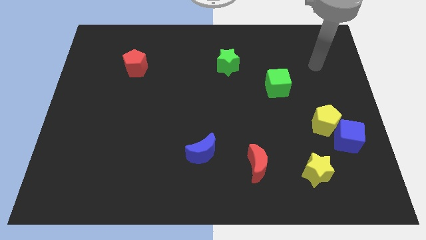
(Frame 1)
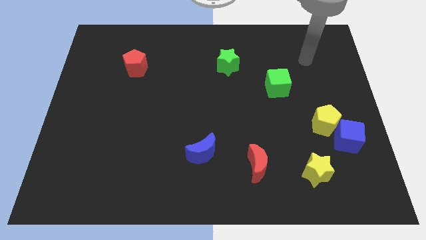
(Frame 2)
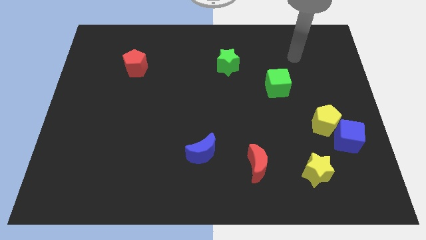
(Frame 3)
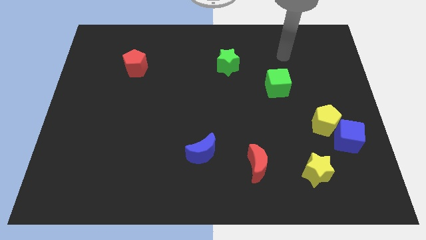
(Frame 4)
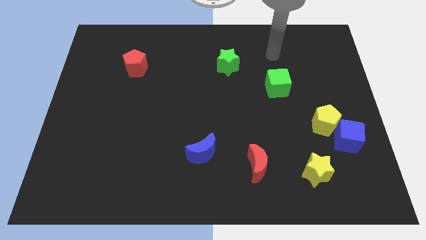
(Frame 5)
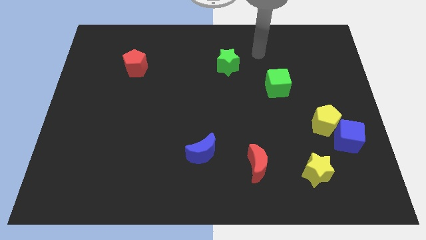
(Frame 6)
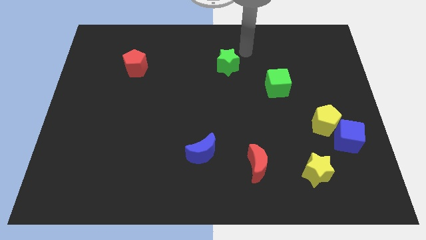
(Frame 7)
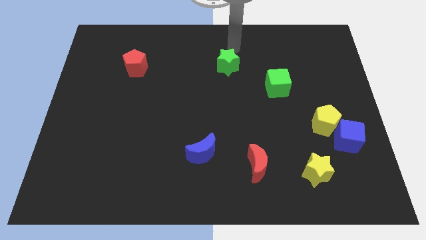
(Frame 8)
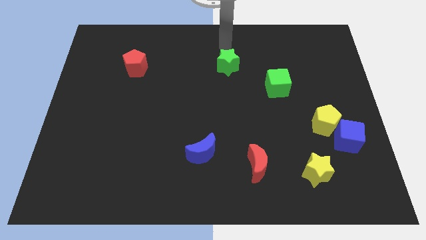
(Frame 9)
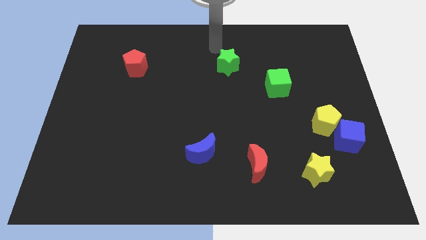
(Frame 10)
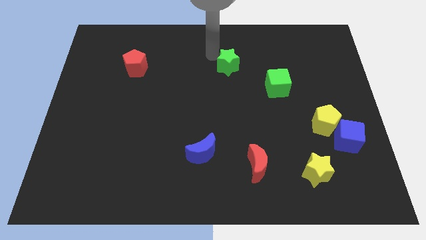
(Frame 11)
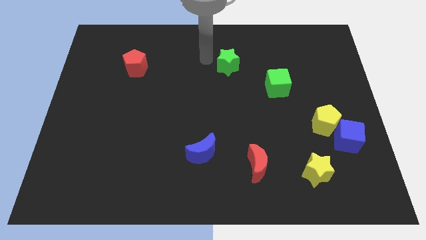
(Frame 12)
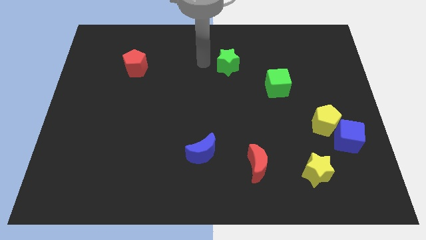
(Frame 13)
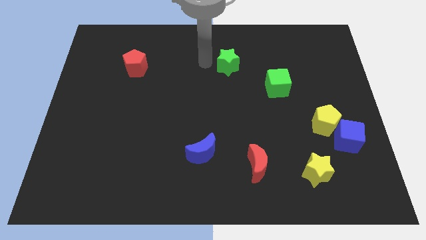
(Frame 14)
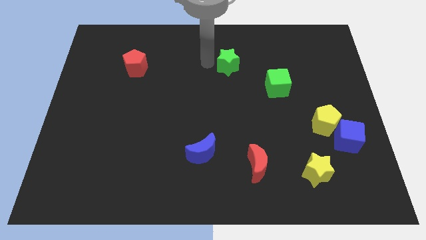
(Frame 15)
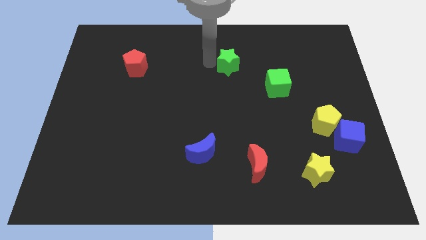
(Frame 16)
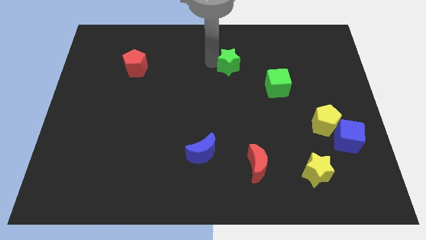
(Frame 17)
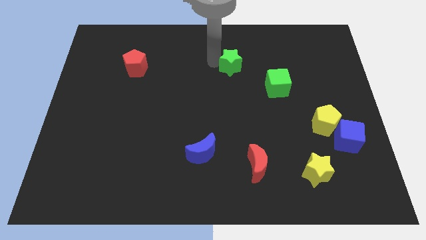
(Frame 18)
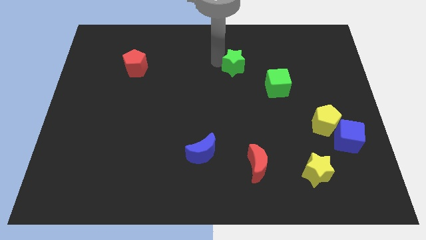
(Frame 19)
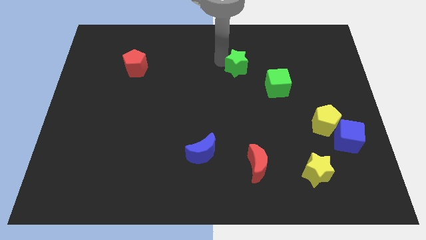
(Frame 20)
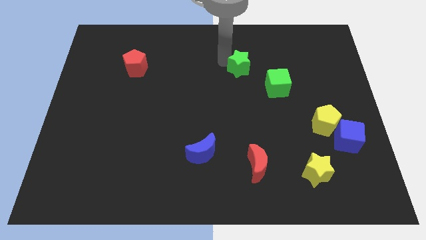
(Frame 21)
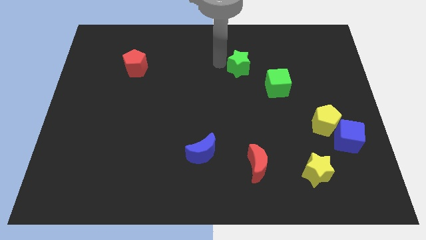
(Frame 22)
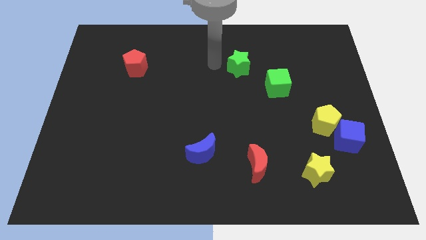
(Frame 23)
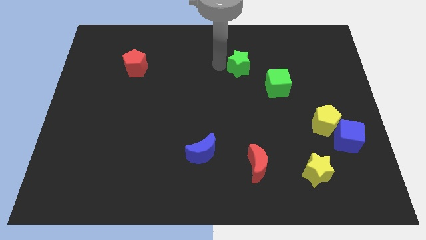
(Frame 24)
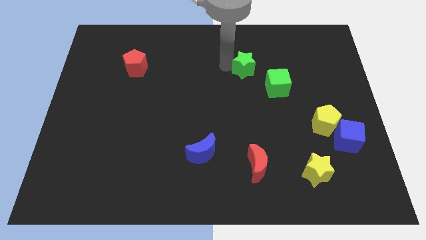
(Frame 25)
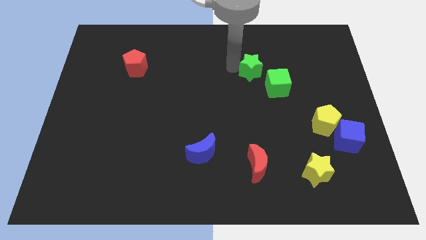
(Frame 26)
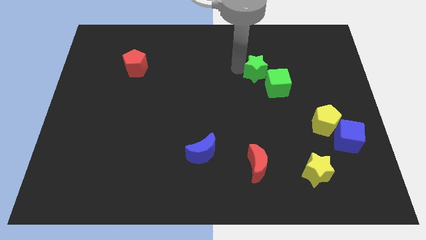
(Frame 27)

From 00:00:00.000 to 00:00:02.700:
push the green star a bit right

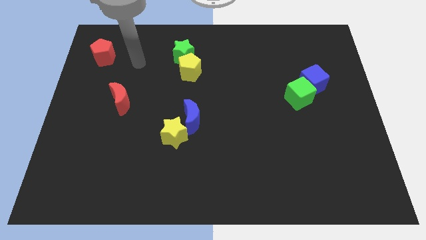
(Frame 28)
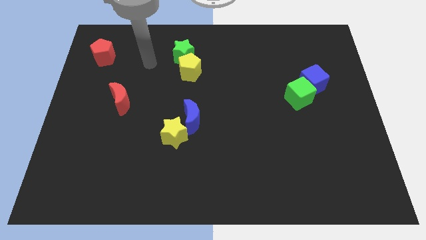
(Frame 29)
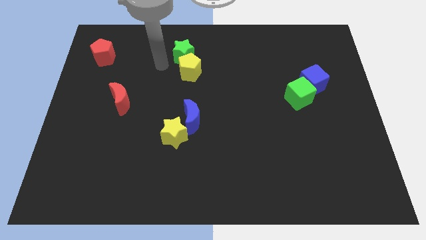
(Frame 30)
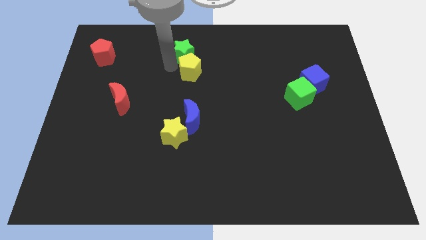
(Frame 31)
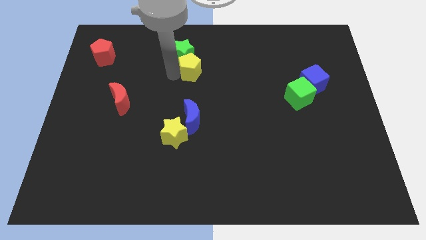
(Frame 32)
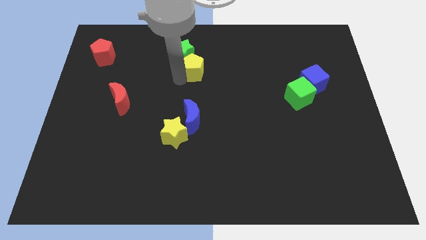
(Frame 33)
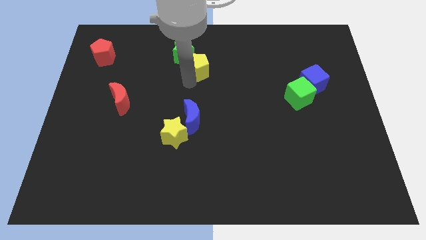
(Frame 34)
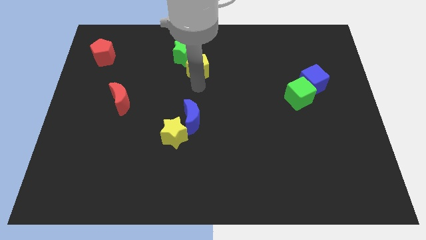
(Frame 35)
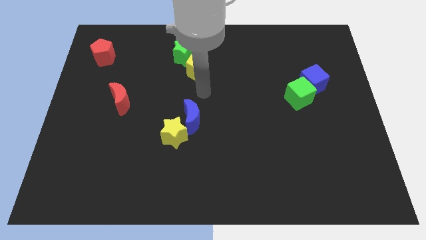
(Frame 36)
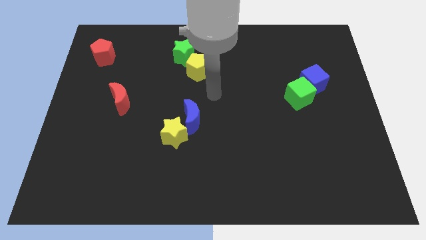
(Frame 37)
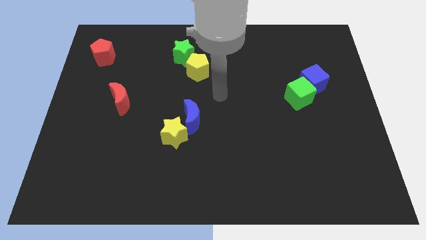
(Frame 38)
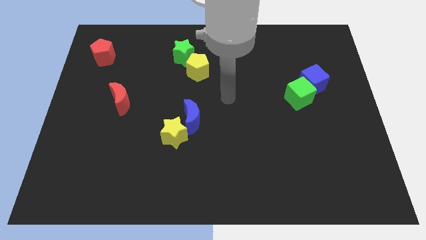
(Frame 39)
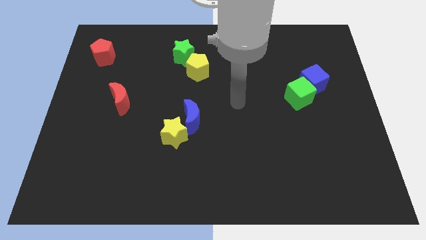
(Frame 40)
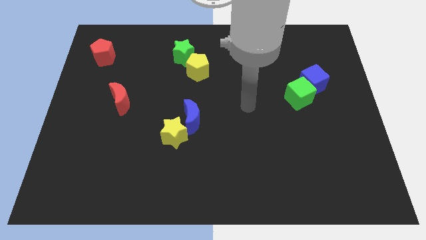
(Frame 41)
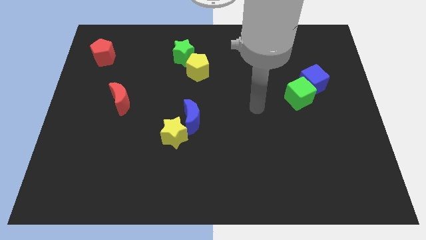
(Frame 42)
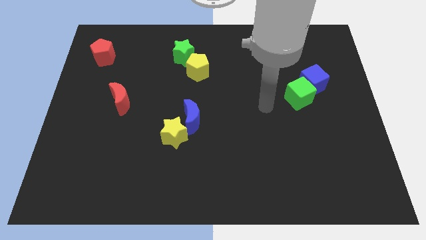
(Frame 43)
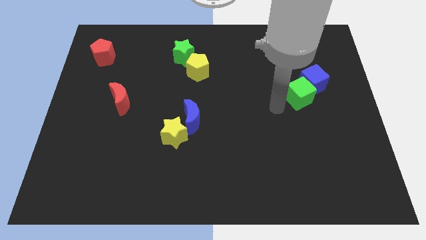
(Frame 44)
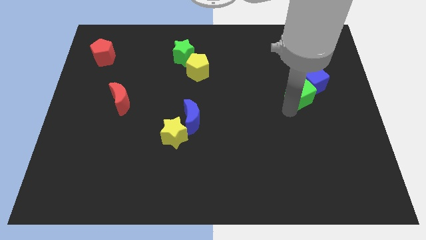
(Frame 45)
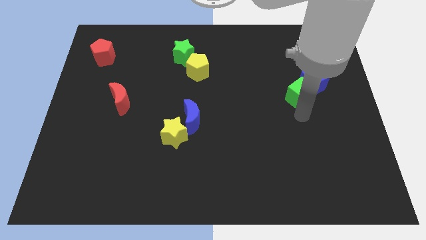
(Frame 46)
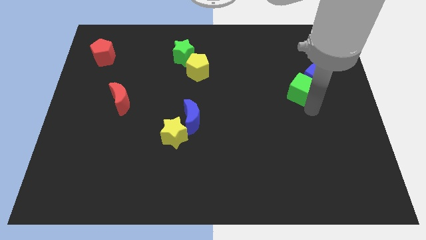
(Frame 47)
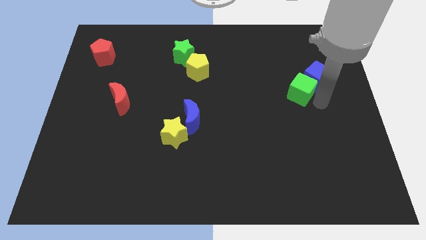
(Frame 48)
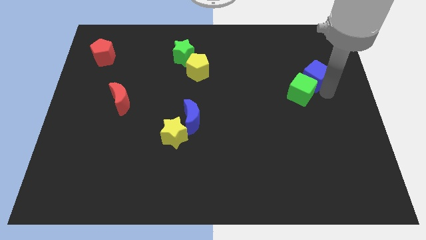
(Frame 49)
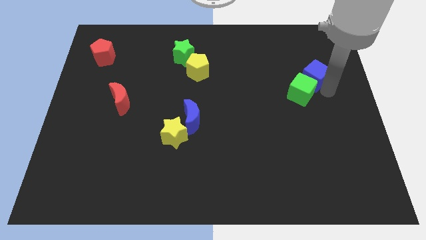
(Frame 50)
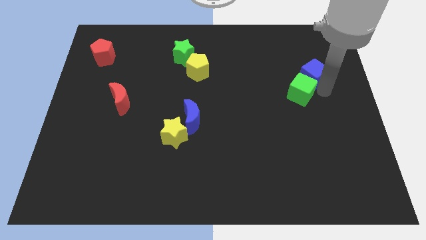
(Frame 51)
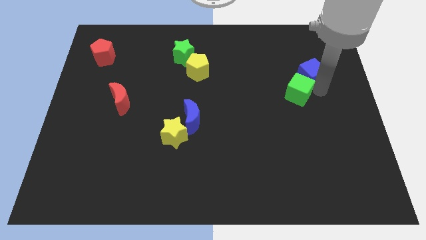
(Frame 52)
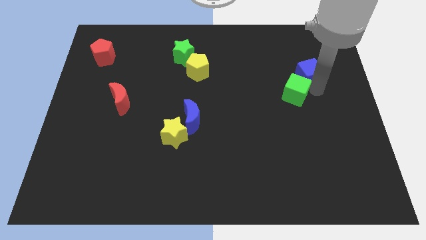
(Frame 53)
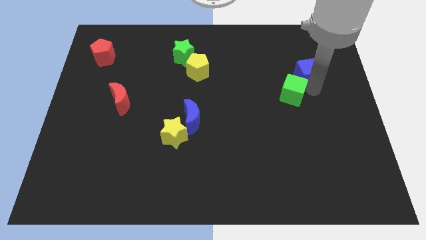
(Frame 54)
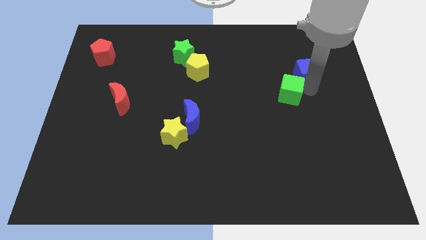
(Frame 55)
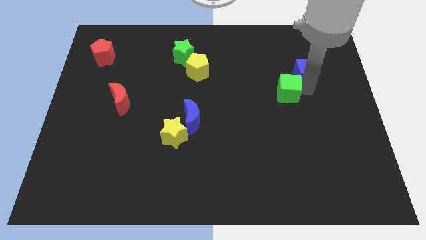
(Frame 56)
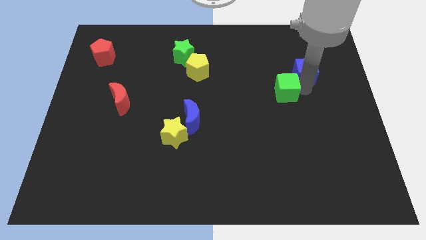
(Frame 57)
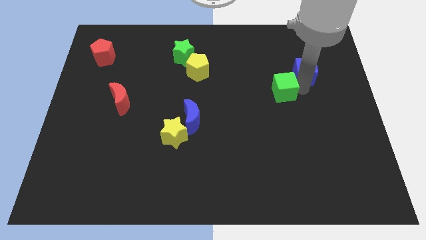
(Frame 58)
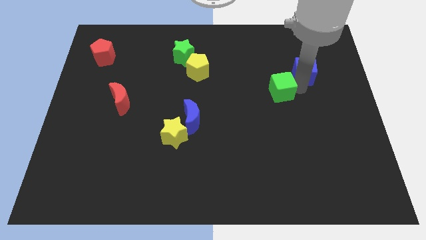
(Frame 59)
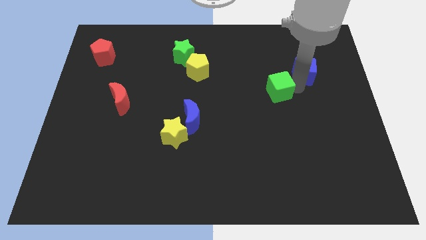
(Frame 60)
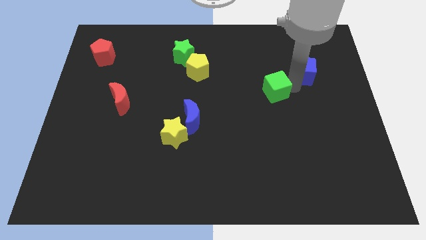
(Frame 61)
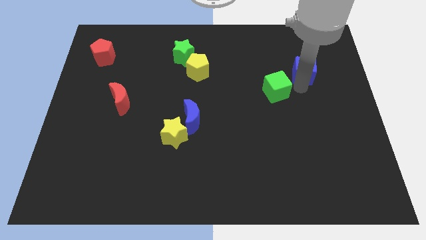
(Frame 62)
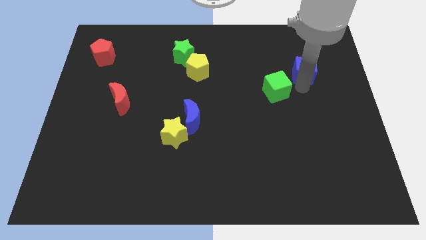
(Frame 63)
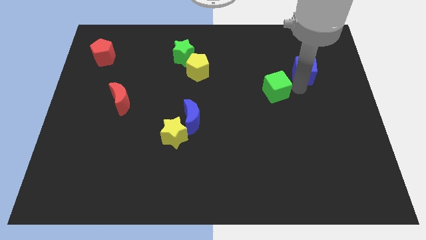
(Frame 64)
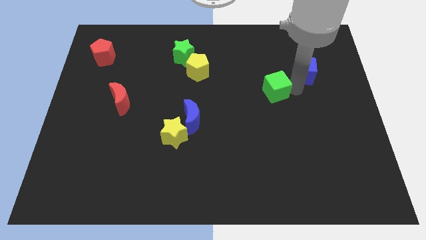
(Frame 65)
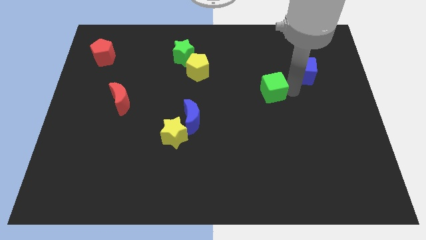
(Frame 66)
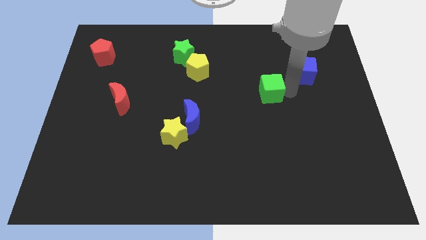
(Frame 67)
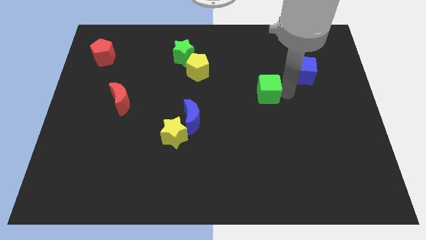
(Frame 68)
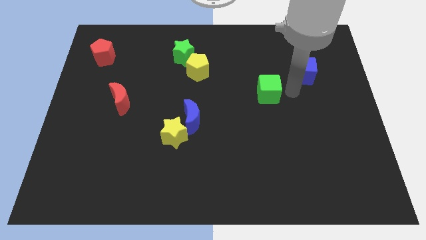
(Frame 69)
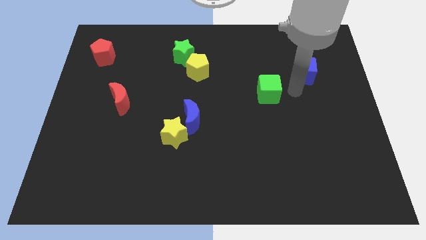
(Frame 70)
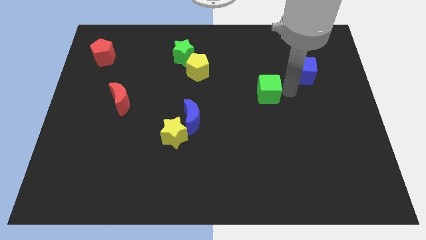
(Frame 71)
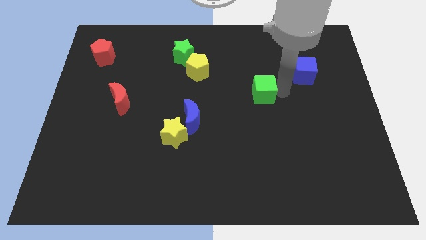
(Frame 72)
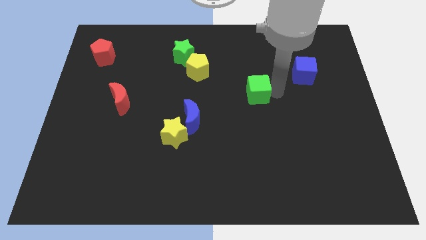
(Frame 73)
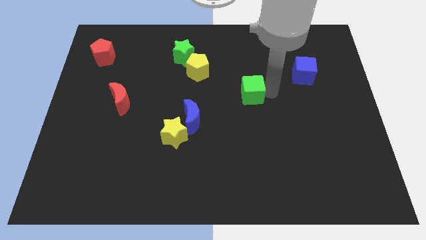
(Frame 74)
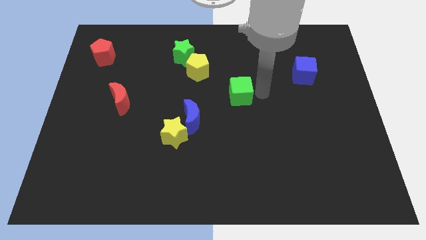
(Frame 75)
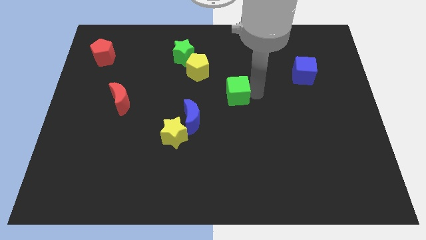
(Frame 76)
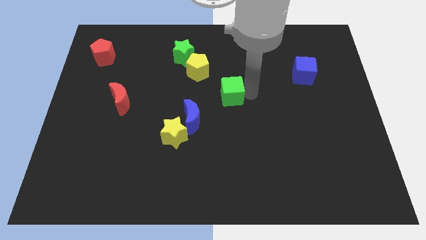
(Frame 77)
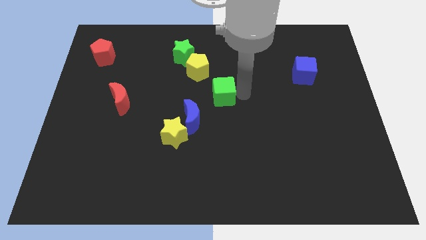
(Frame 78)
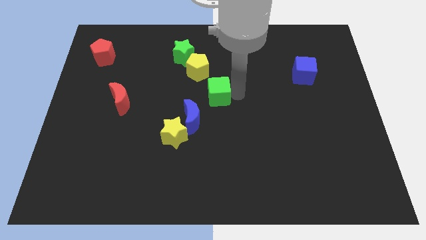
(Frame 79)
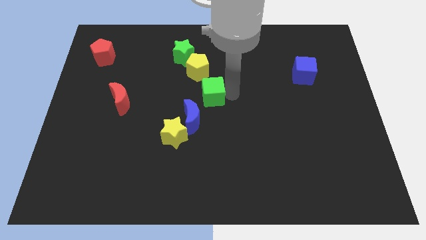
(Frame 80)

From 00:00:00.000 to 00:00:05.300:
slide the green cube left
